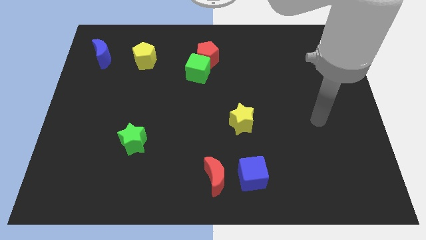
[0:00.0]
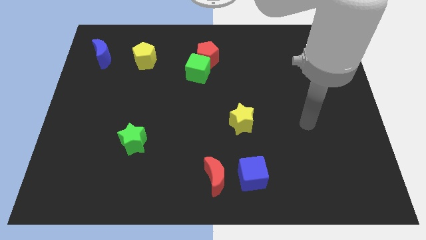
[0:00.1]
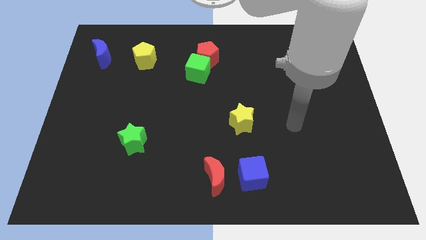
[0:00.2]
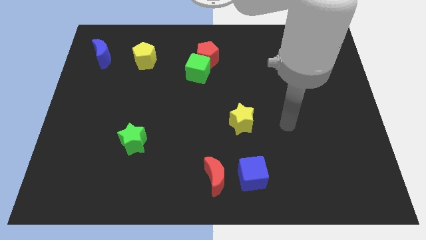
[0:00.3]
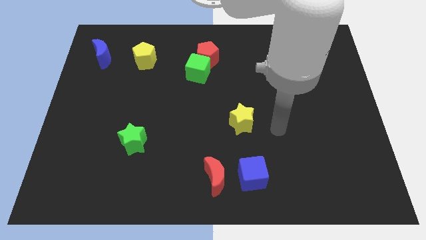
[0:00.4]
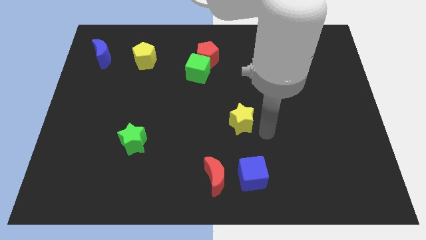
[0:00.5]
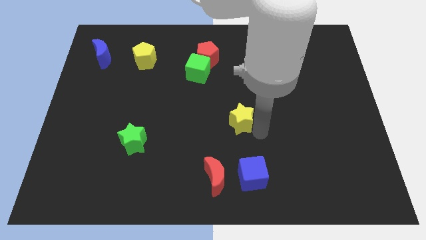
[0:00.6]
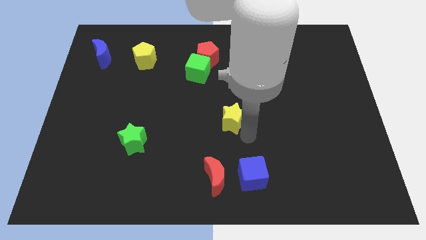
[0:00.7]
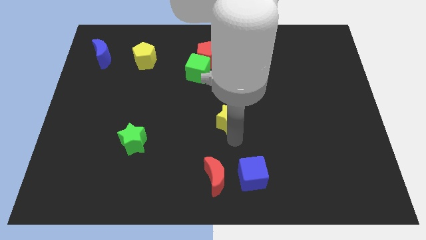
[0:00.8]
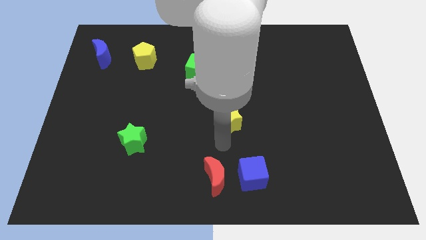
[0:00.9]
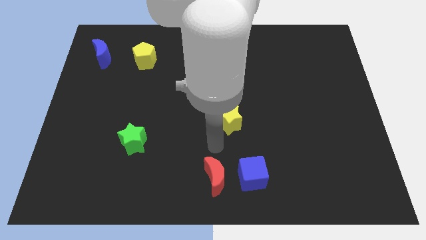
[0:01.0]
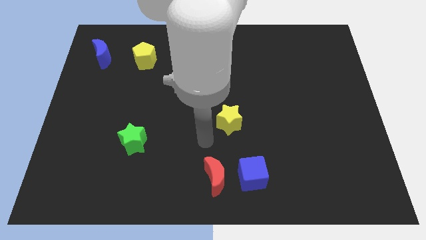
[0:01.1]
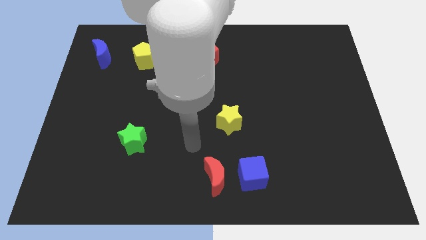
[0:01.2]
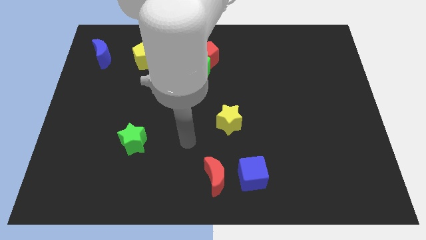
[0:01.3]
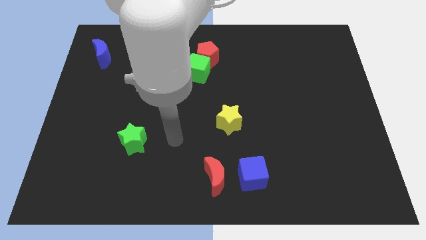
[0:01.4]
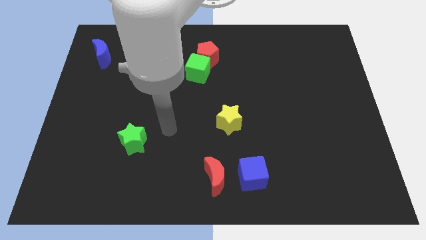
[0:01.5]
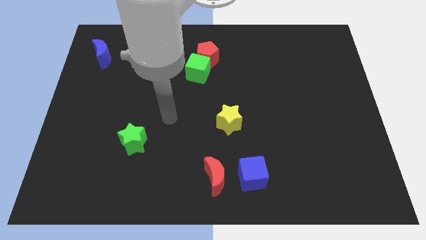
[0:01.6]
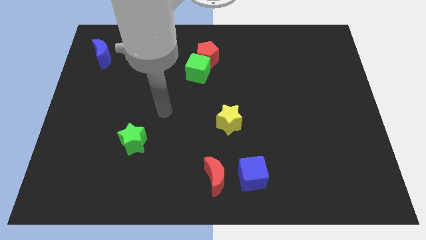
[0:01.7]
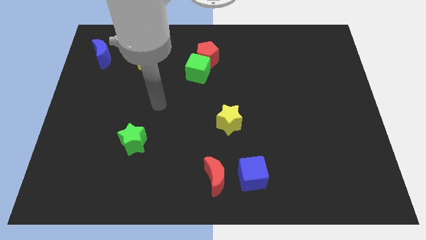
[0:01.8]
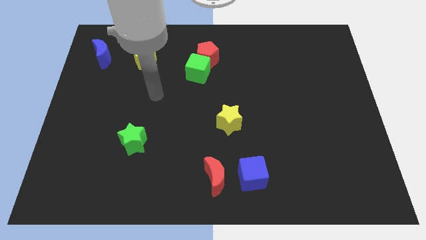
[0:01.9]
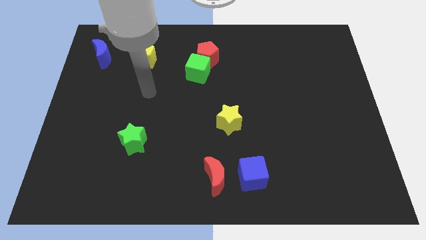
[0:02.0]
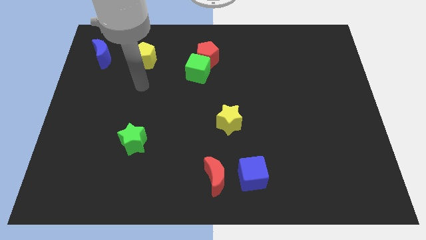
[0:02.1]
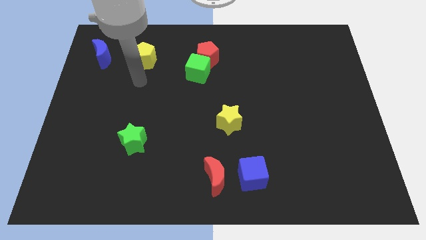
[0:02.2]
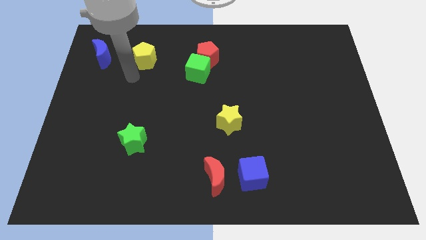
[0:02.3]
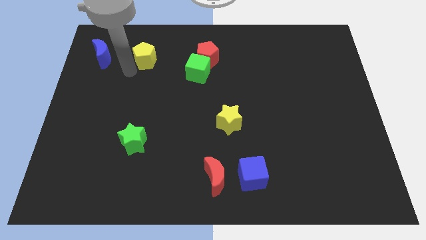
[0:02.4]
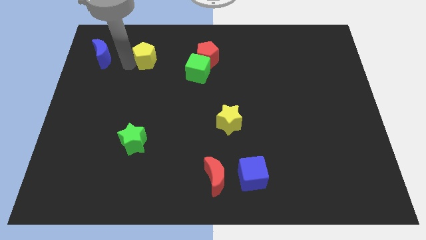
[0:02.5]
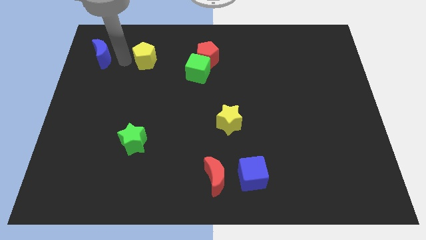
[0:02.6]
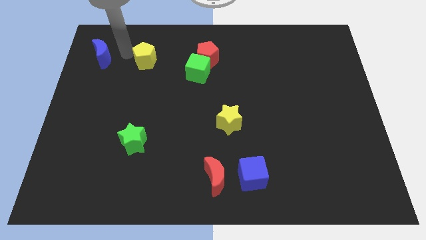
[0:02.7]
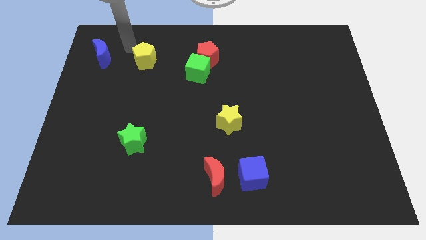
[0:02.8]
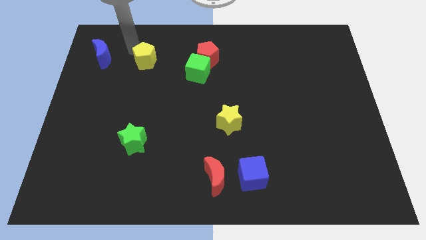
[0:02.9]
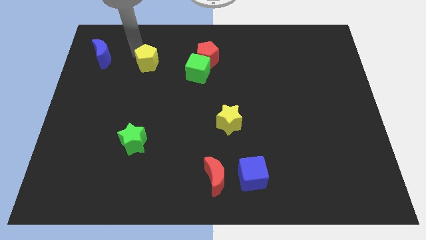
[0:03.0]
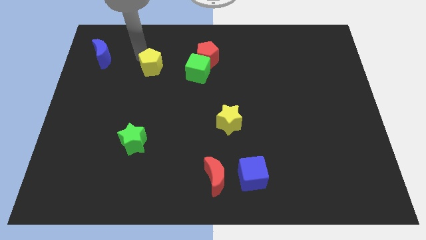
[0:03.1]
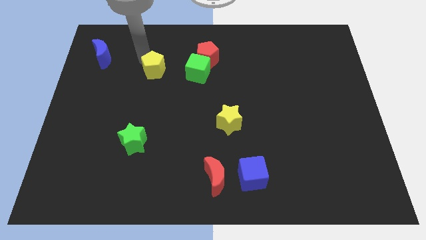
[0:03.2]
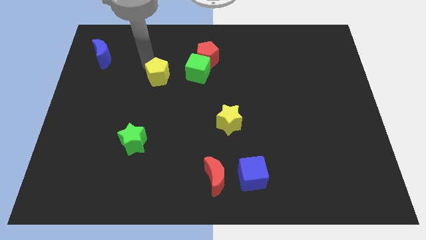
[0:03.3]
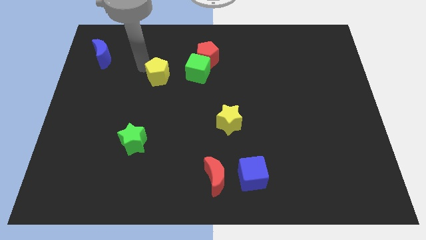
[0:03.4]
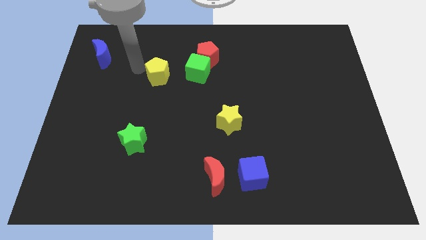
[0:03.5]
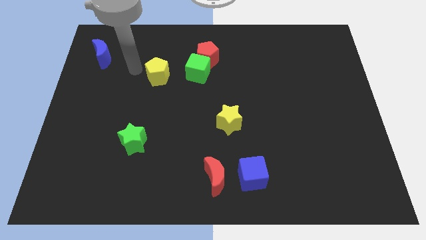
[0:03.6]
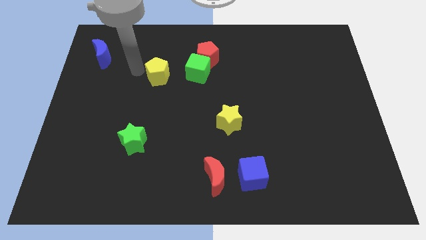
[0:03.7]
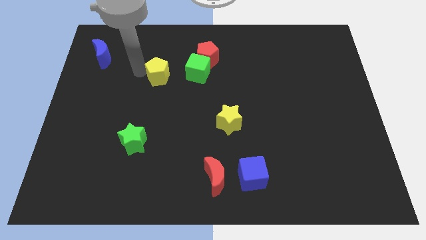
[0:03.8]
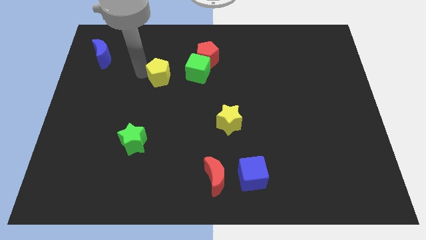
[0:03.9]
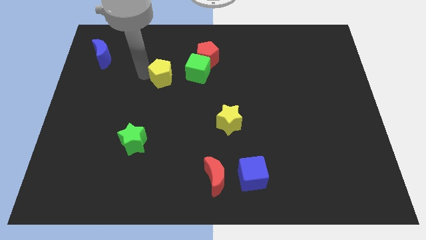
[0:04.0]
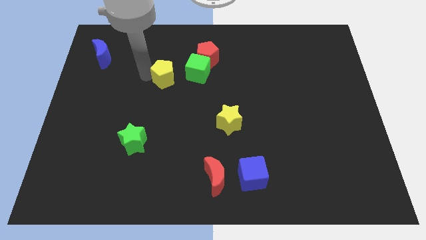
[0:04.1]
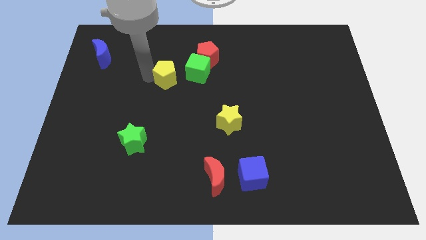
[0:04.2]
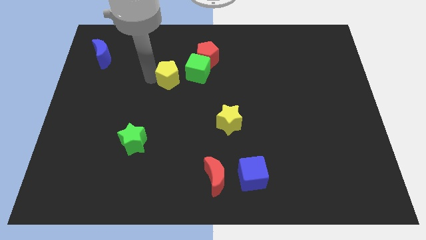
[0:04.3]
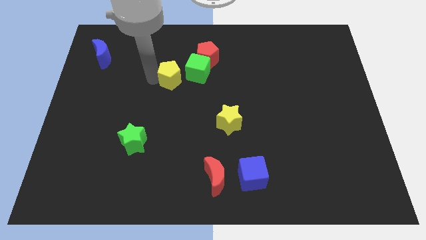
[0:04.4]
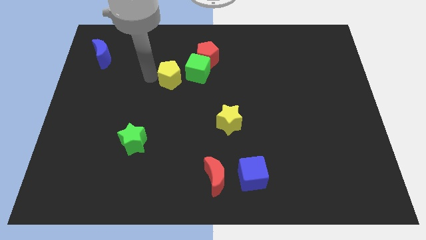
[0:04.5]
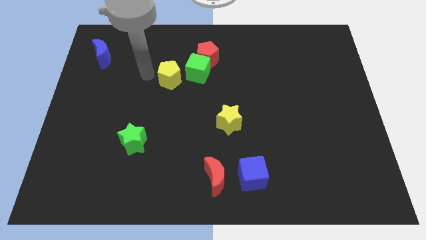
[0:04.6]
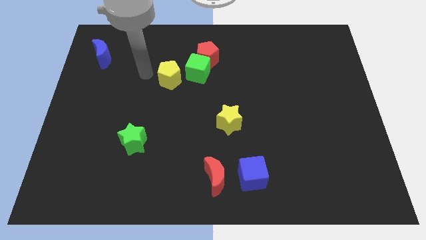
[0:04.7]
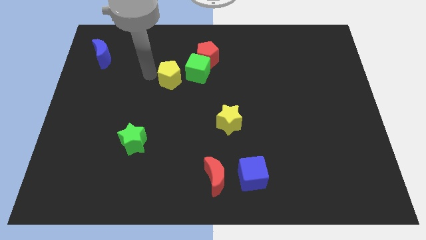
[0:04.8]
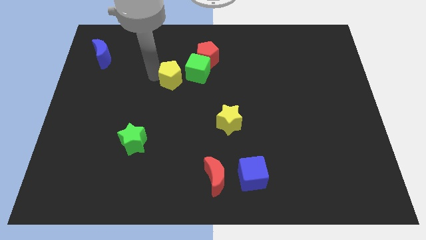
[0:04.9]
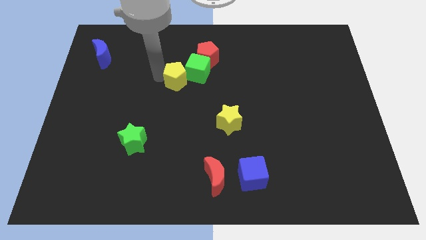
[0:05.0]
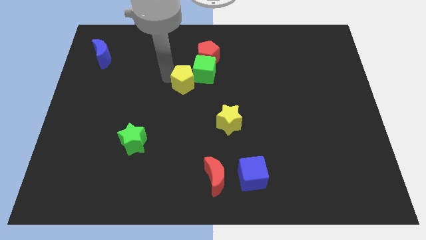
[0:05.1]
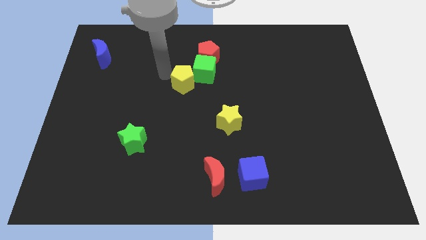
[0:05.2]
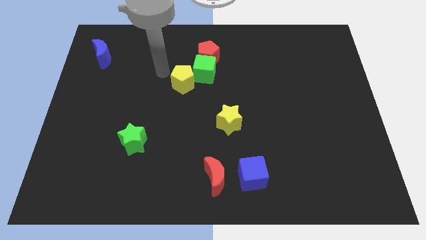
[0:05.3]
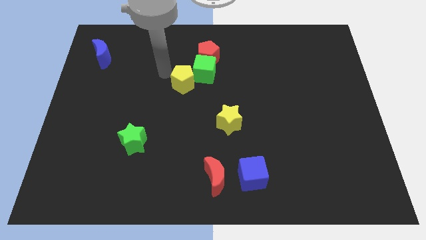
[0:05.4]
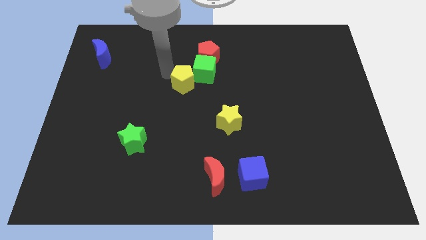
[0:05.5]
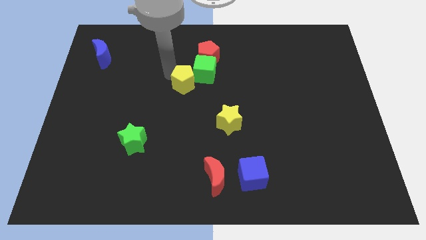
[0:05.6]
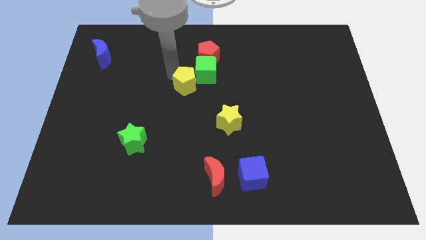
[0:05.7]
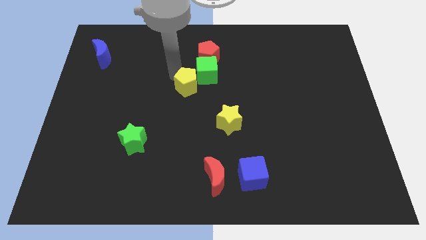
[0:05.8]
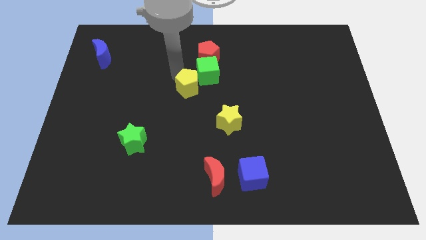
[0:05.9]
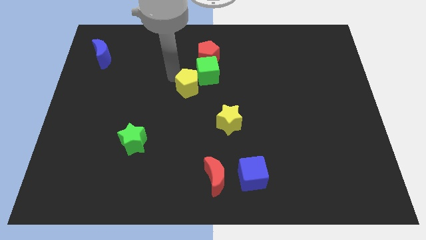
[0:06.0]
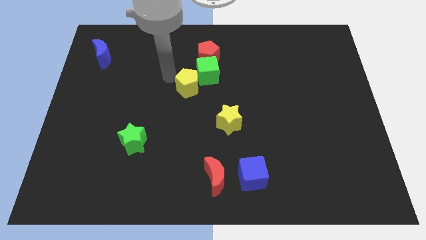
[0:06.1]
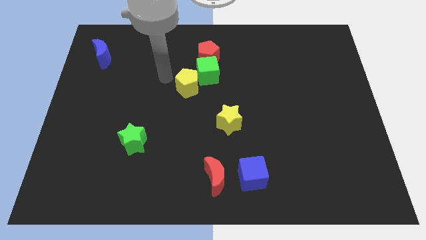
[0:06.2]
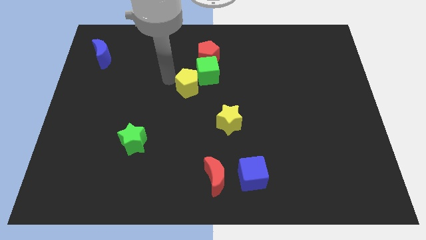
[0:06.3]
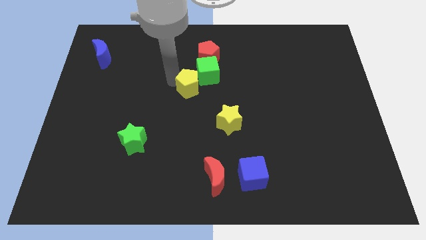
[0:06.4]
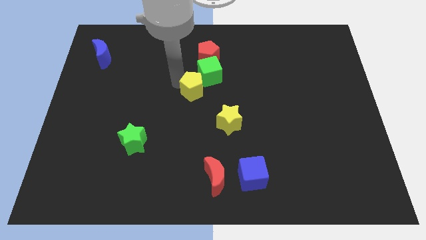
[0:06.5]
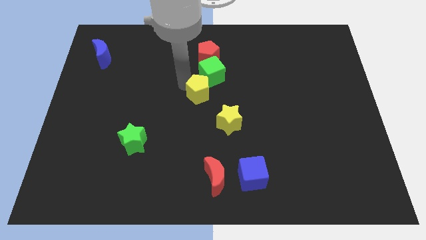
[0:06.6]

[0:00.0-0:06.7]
move the yellow pentagon to the top left of the yellow star

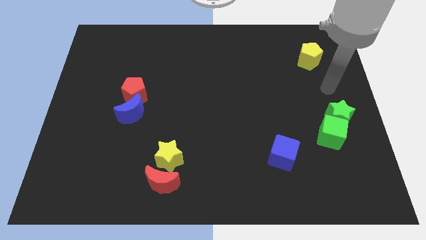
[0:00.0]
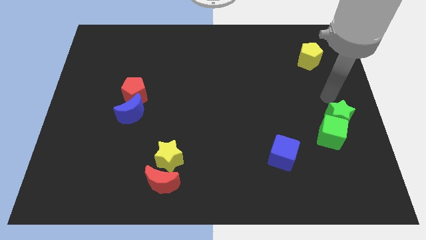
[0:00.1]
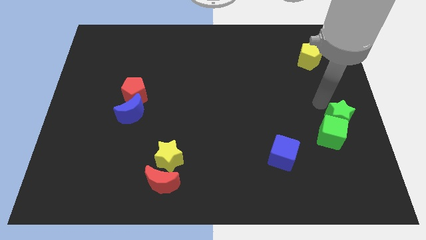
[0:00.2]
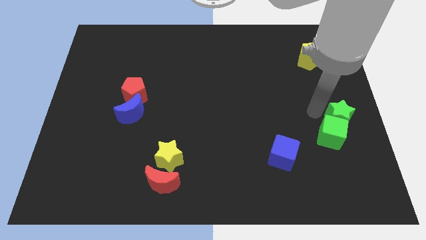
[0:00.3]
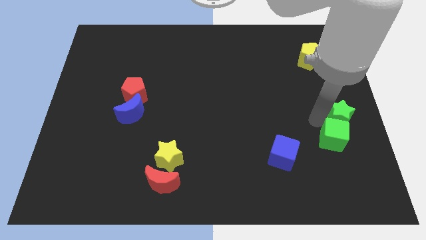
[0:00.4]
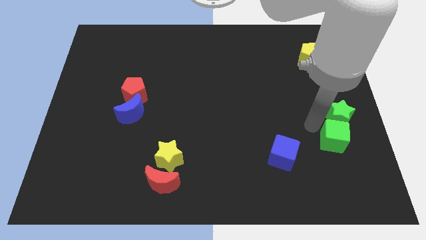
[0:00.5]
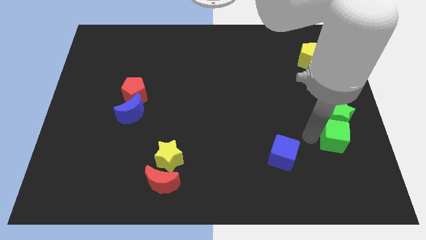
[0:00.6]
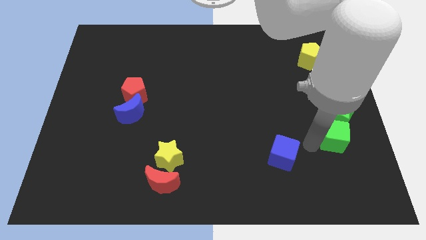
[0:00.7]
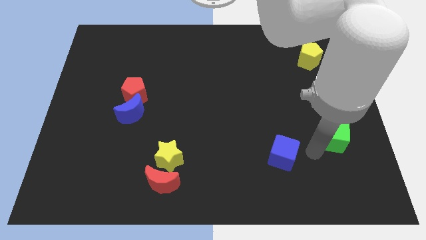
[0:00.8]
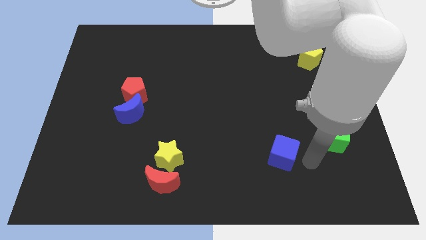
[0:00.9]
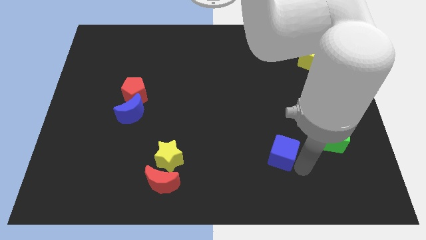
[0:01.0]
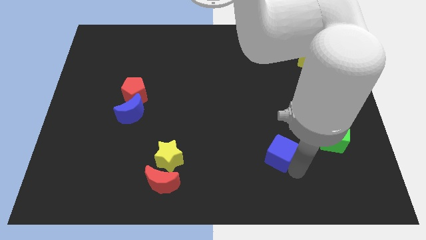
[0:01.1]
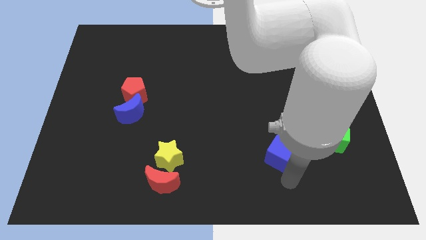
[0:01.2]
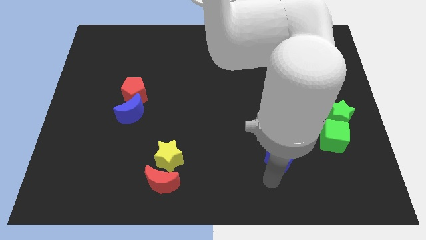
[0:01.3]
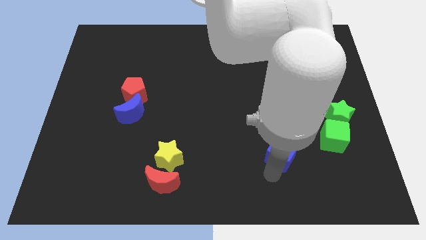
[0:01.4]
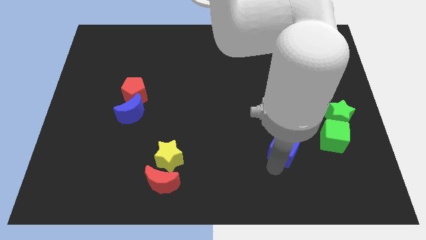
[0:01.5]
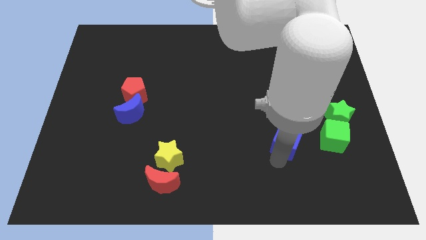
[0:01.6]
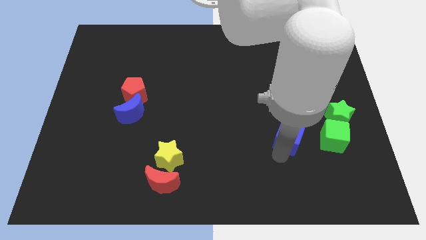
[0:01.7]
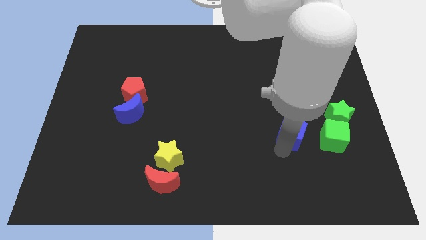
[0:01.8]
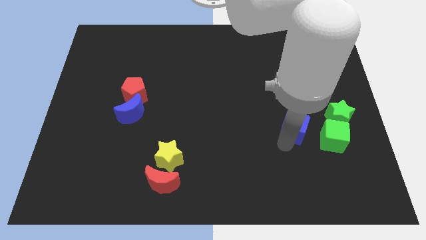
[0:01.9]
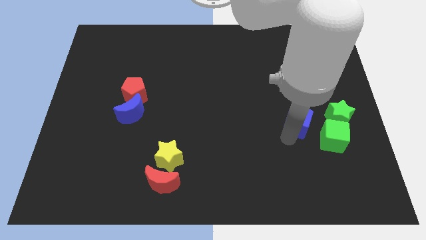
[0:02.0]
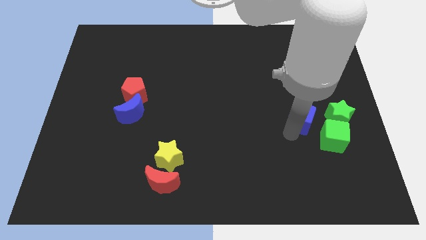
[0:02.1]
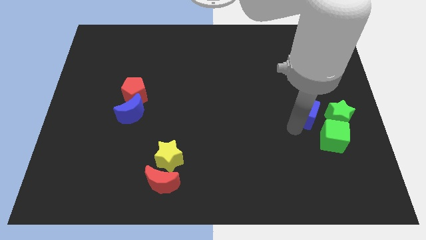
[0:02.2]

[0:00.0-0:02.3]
slide the blue cube to the top left side of the green star
